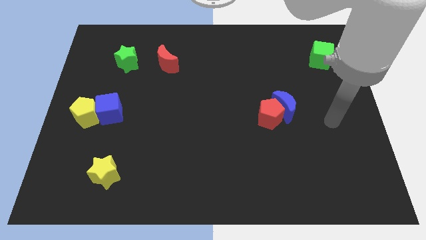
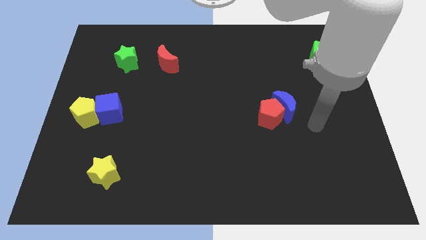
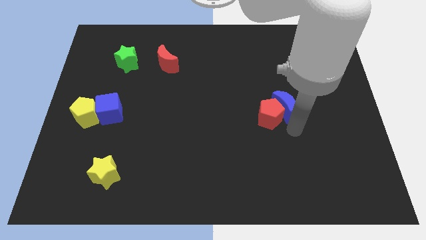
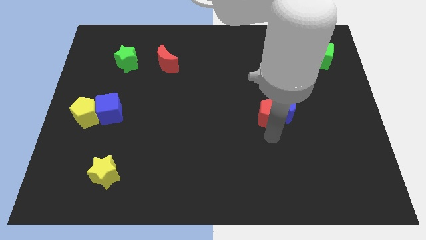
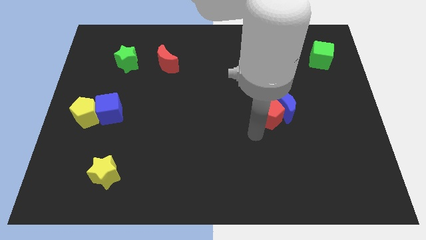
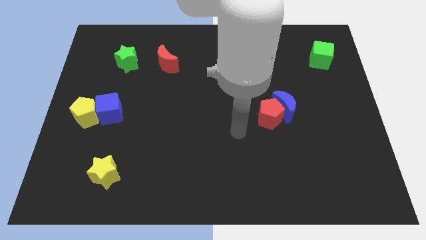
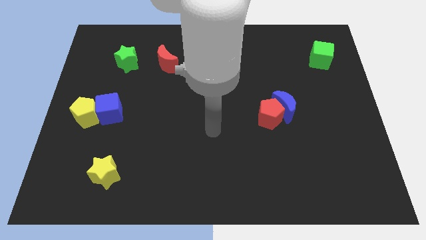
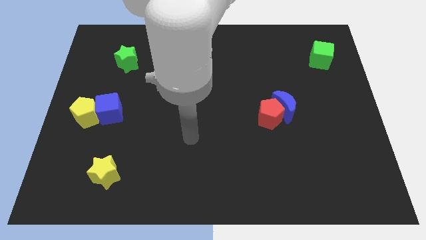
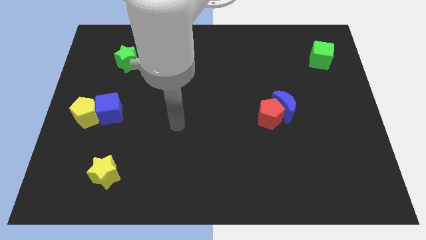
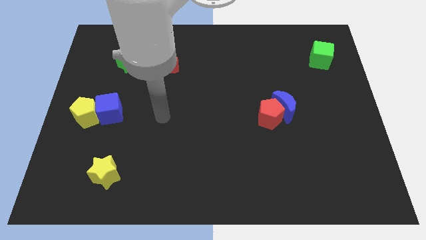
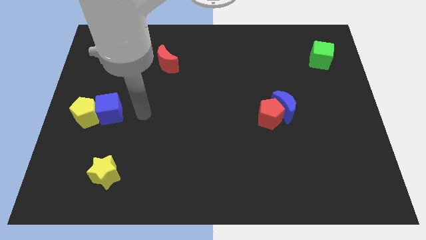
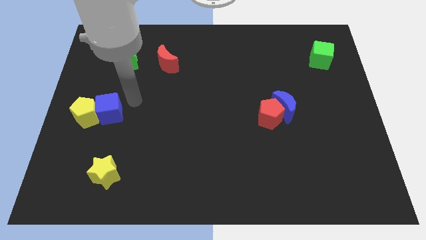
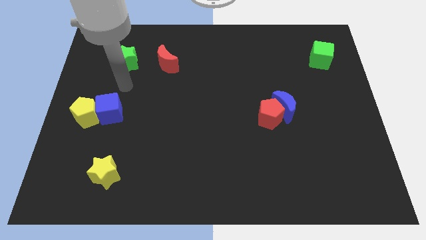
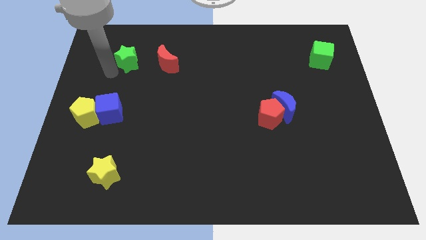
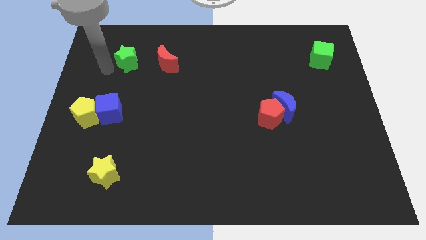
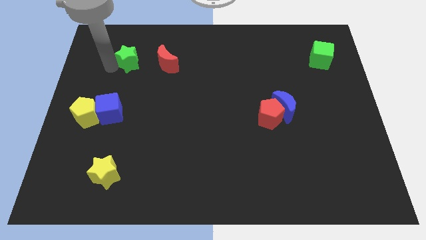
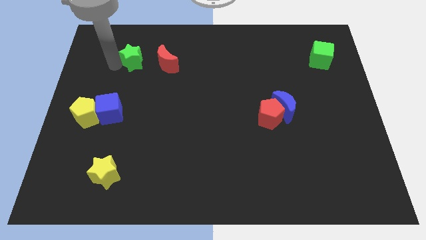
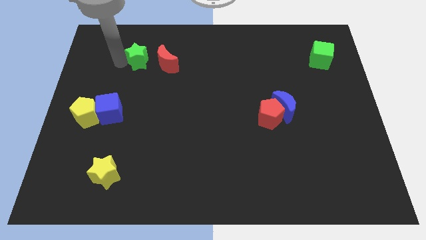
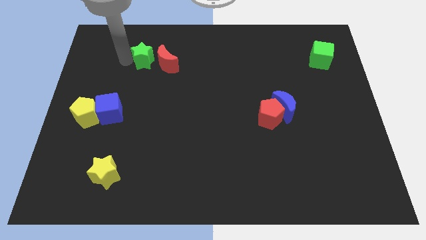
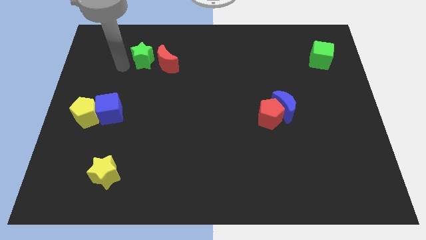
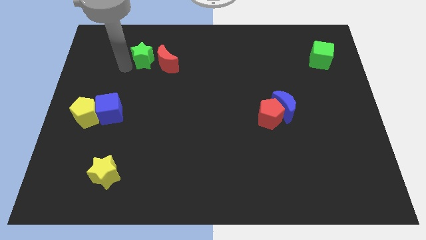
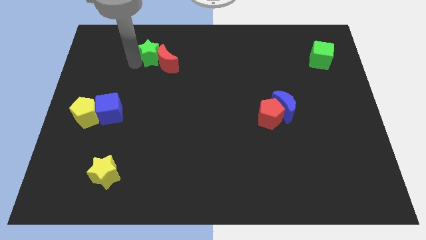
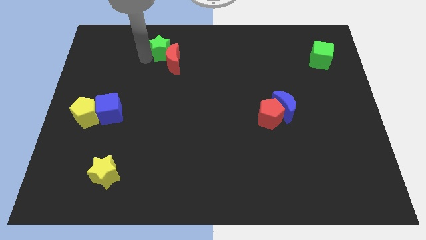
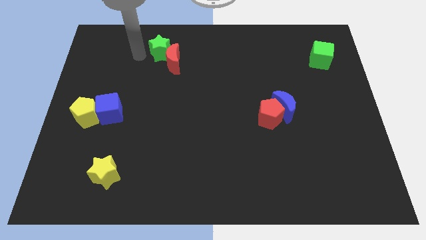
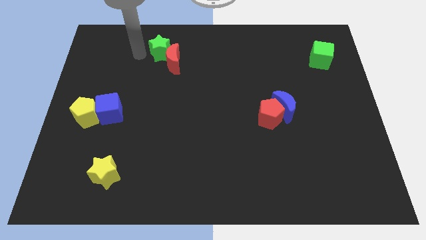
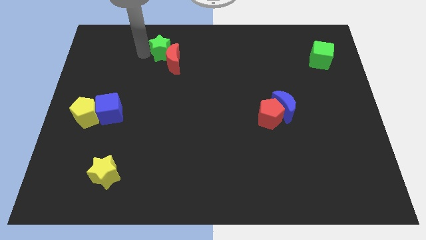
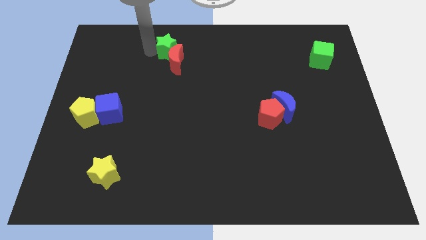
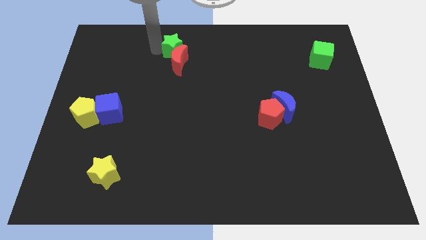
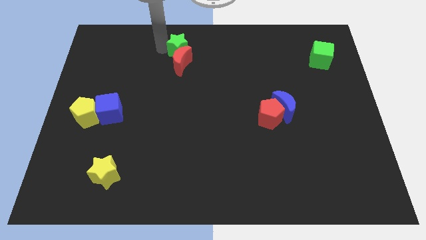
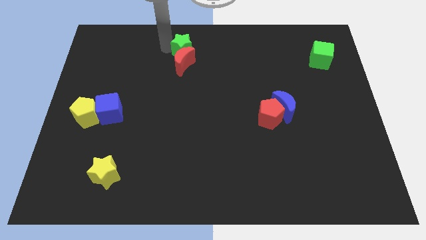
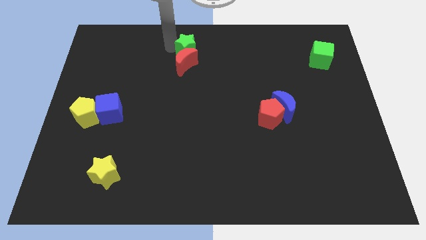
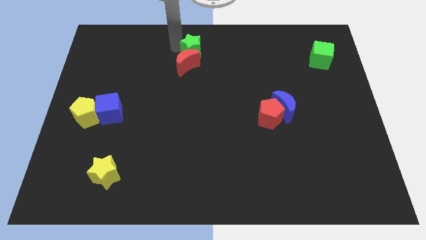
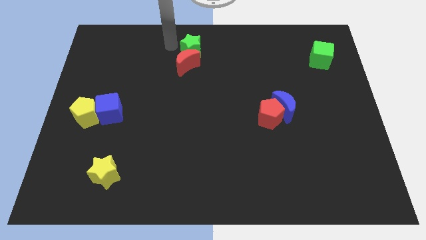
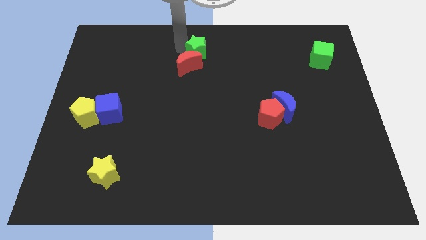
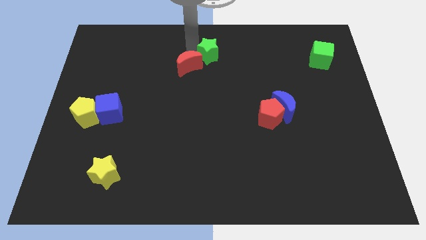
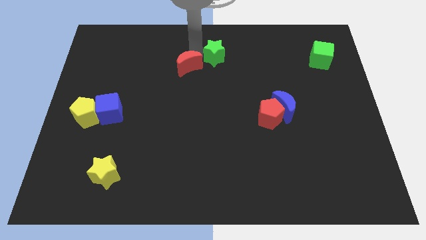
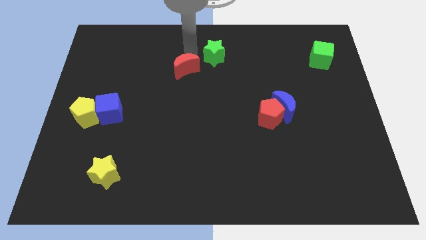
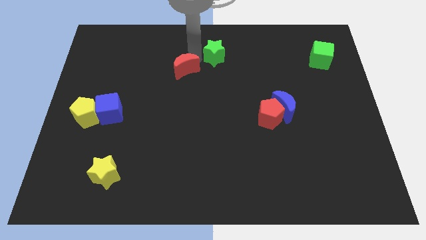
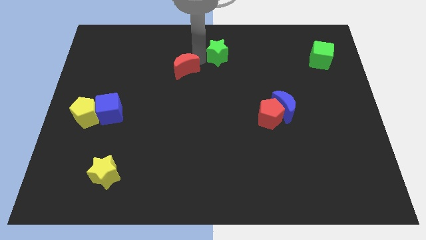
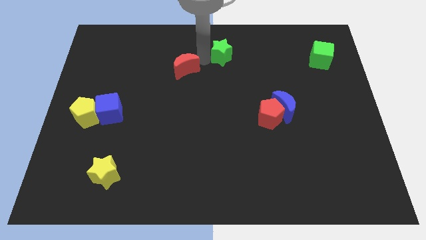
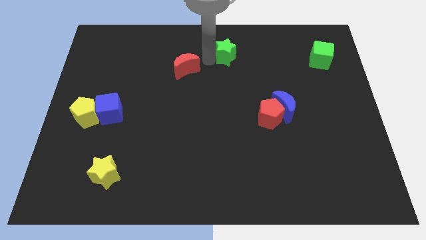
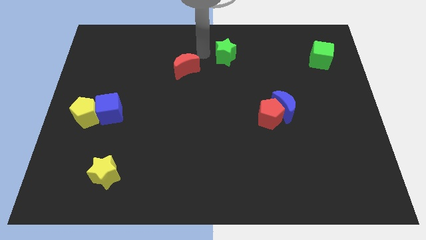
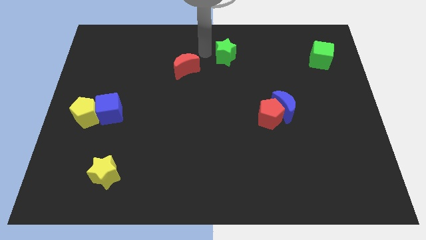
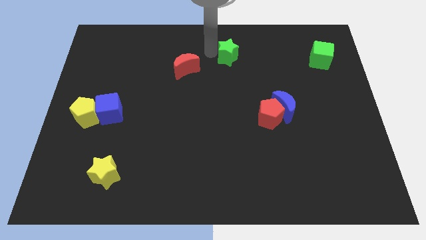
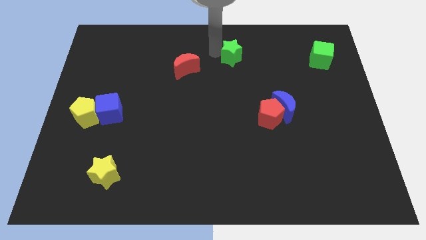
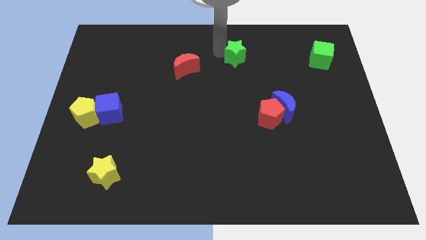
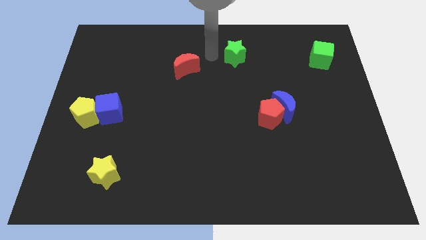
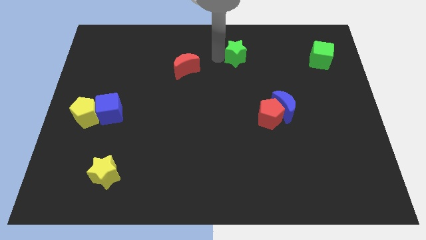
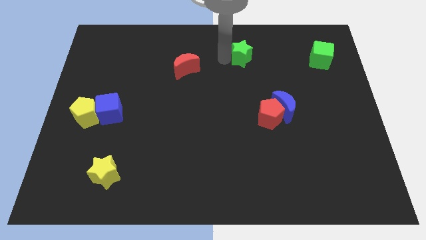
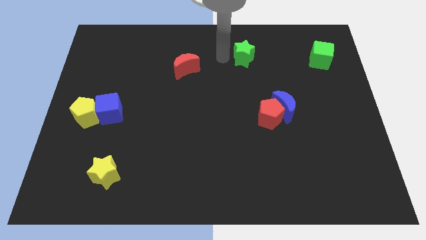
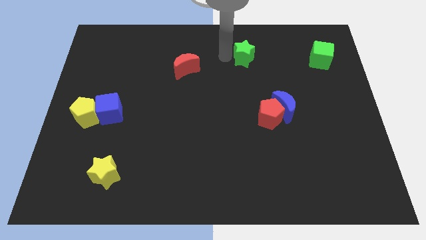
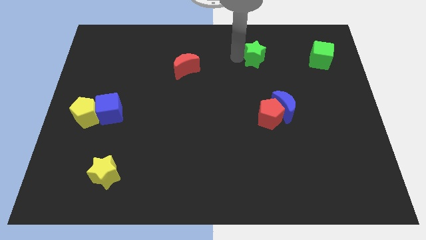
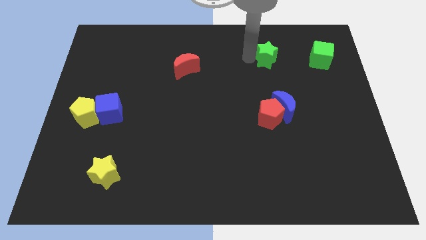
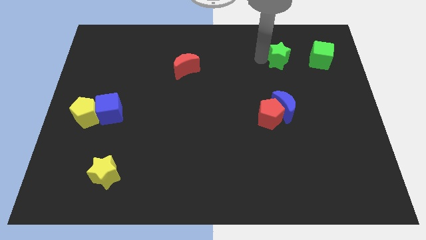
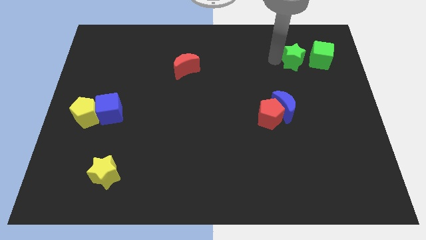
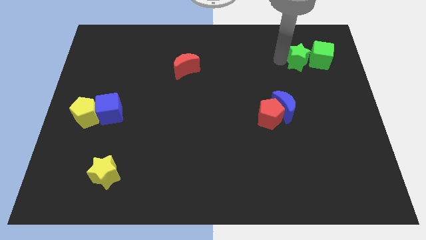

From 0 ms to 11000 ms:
move the green star towards the green cube

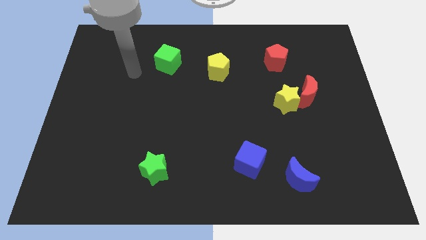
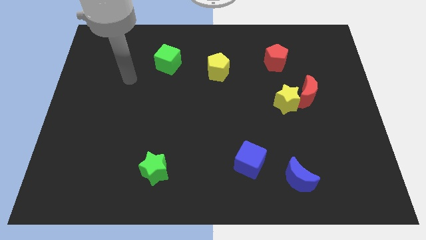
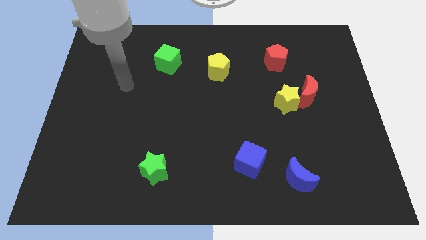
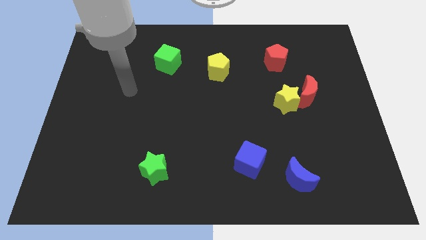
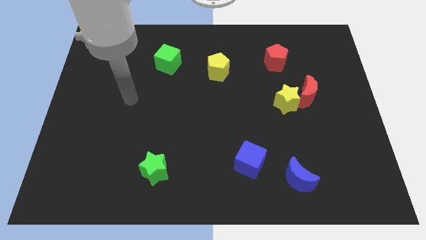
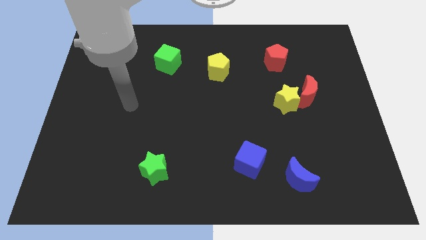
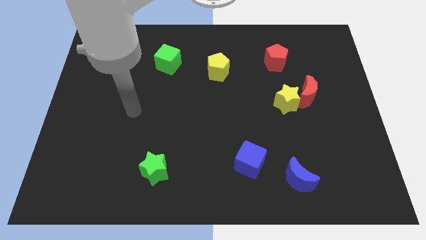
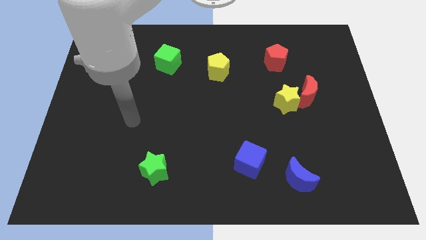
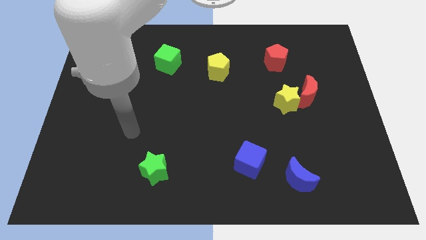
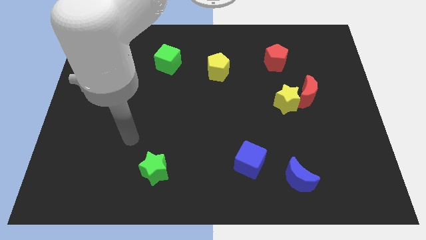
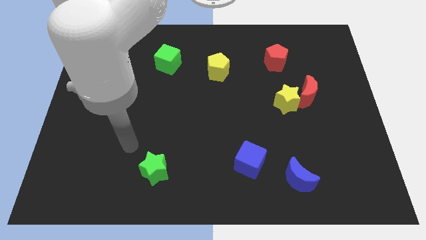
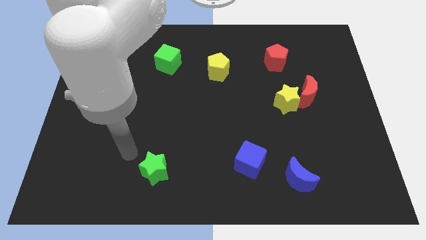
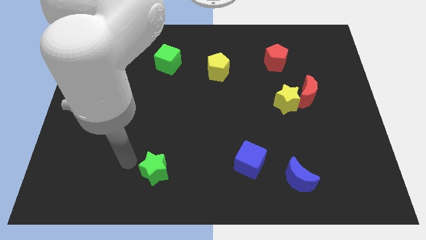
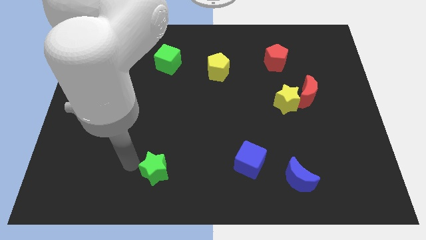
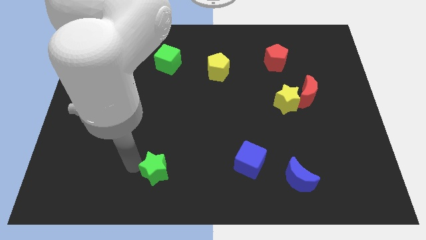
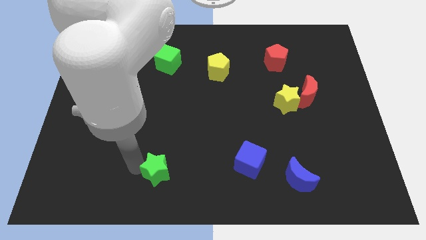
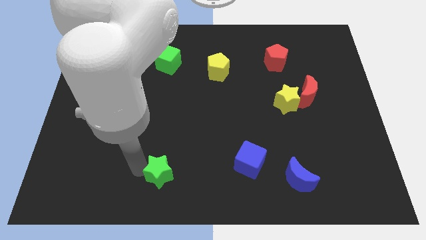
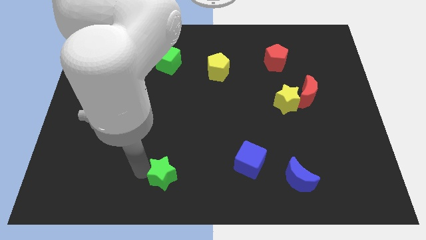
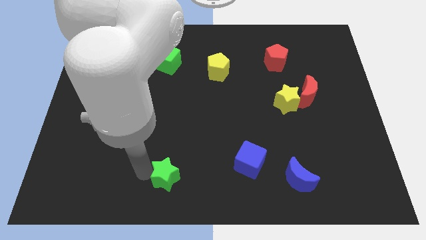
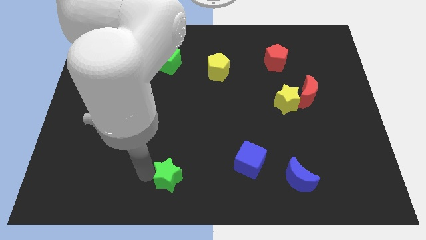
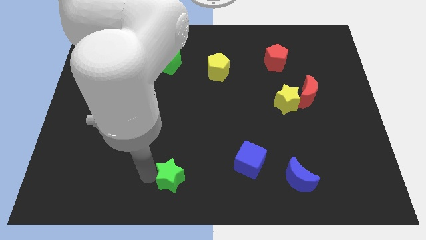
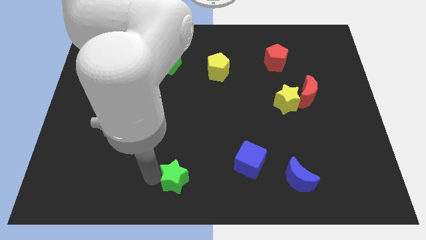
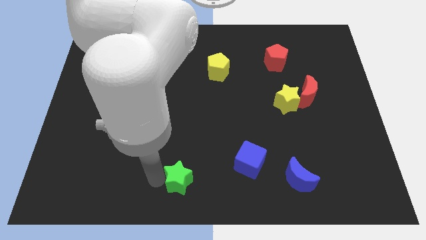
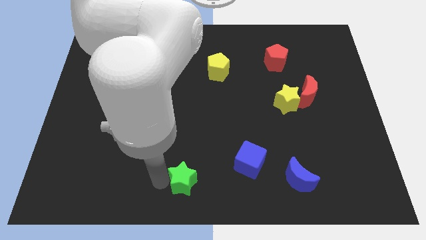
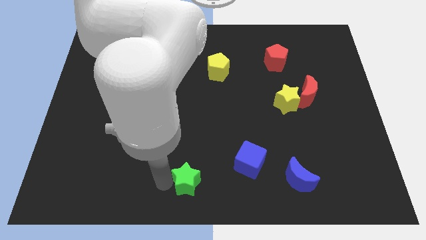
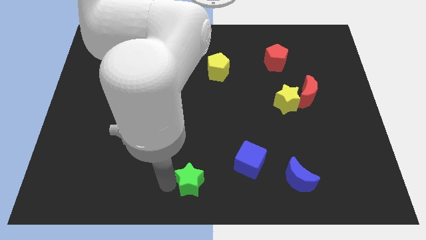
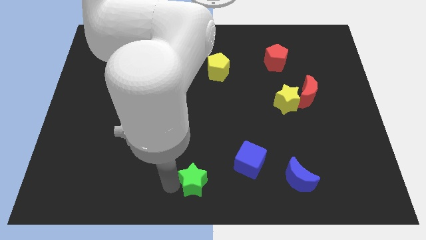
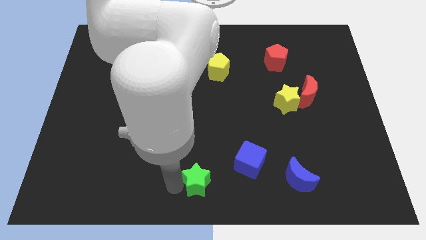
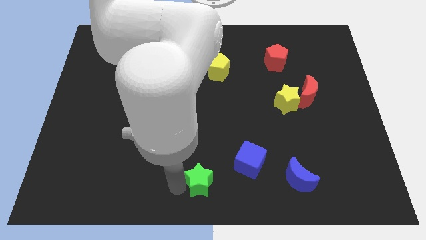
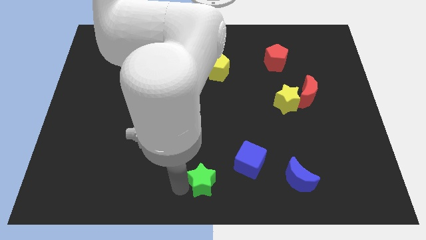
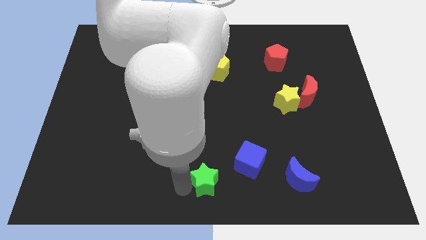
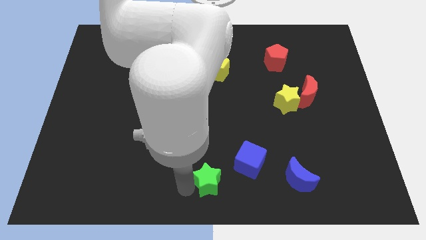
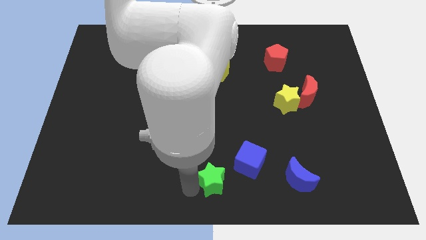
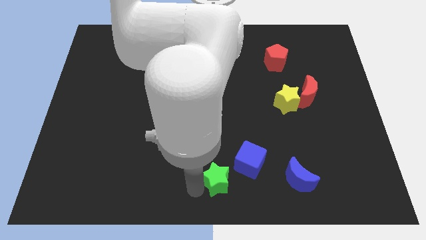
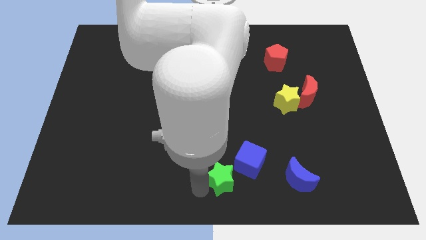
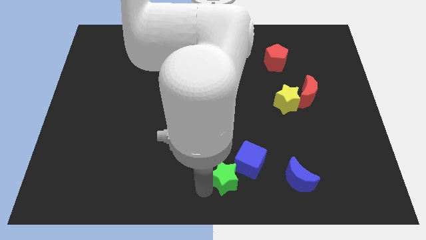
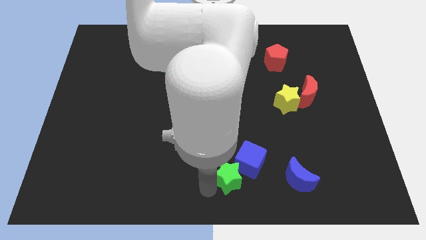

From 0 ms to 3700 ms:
put the green star to the blue cube
